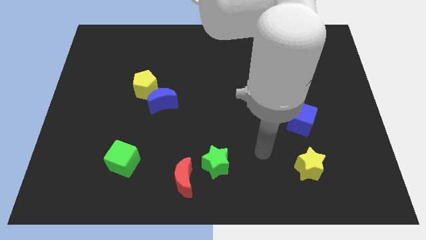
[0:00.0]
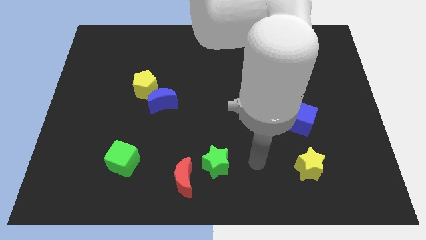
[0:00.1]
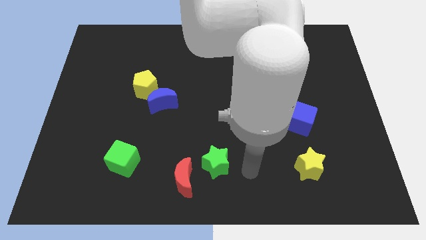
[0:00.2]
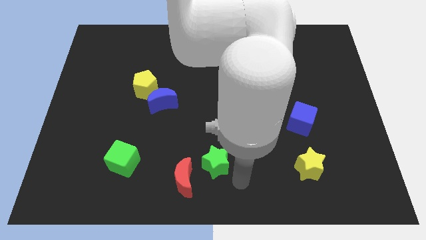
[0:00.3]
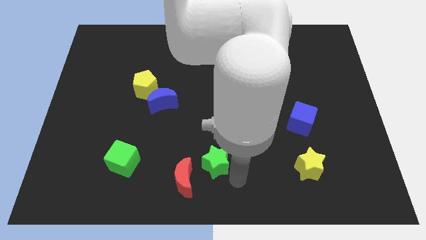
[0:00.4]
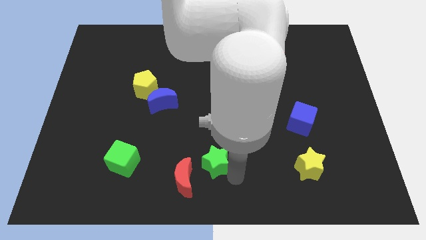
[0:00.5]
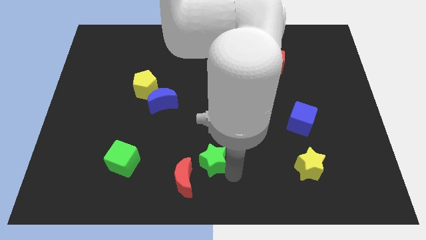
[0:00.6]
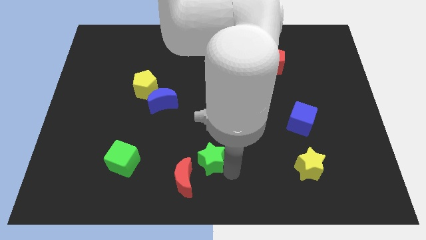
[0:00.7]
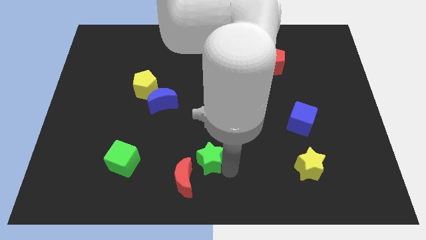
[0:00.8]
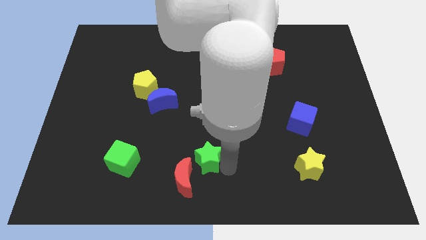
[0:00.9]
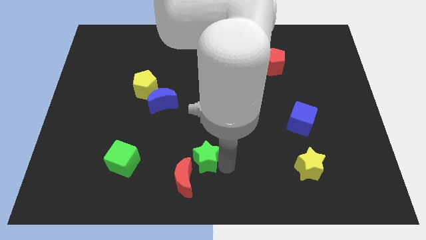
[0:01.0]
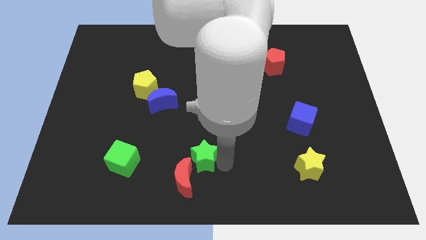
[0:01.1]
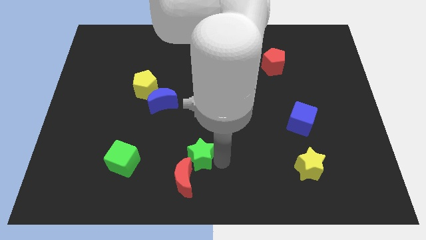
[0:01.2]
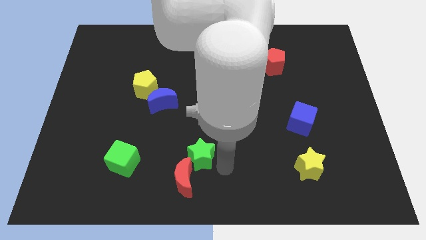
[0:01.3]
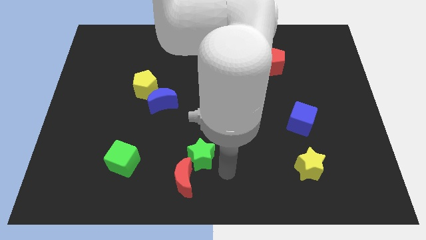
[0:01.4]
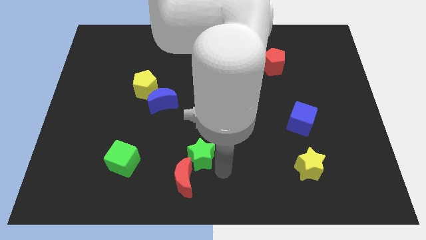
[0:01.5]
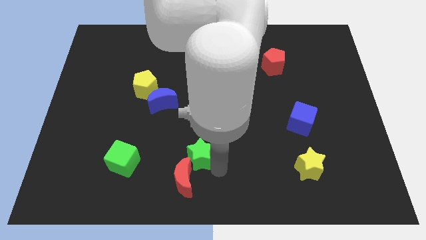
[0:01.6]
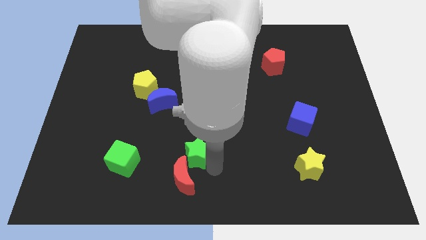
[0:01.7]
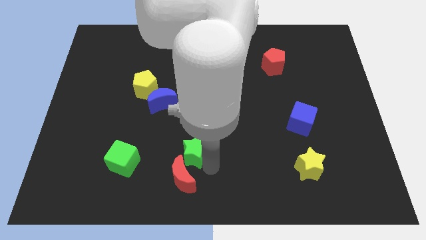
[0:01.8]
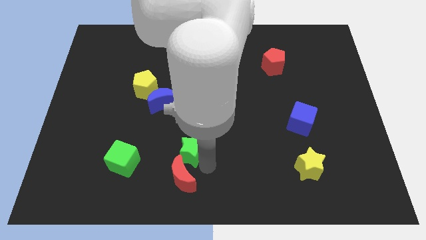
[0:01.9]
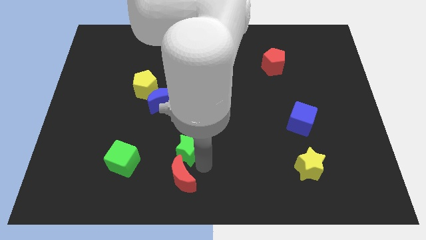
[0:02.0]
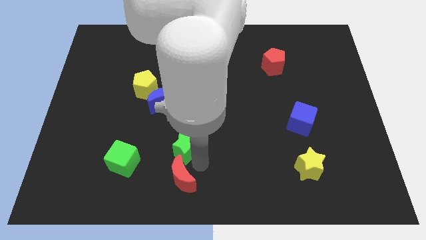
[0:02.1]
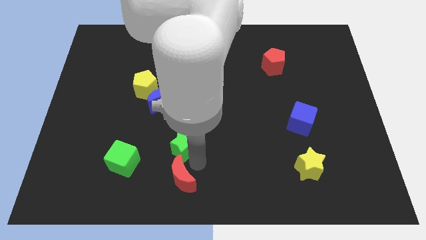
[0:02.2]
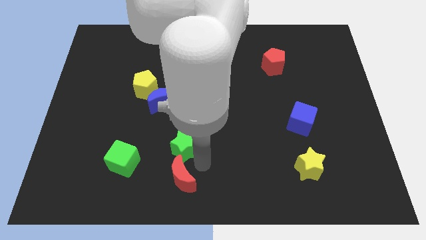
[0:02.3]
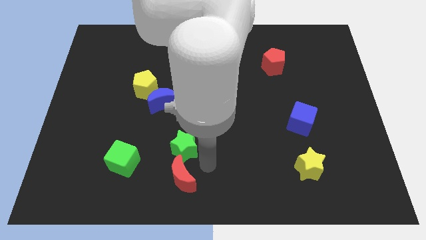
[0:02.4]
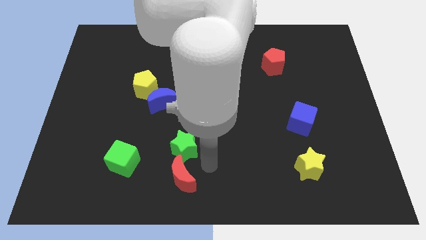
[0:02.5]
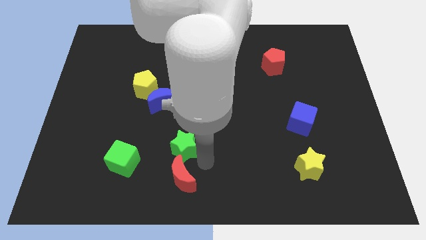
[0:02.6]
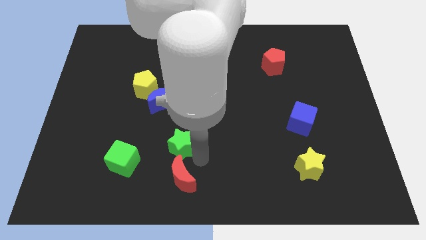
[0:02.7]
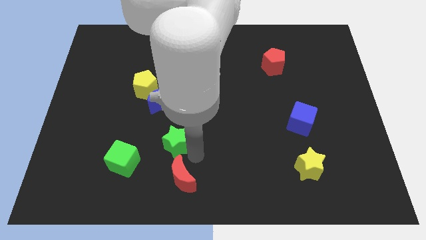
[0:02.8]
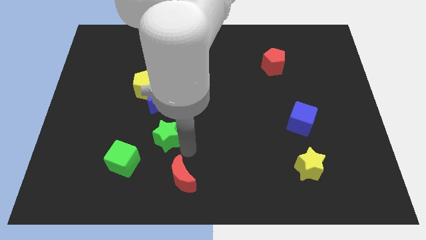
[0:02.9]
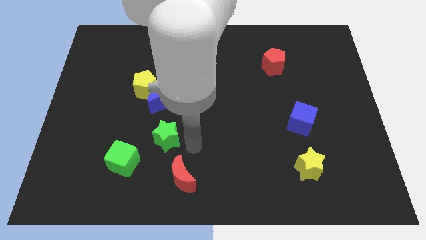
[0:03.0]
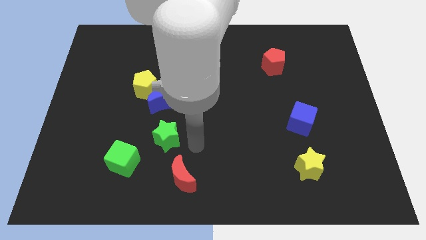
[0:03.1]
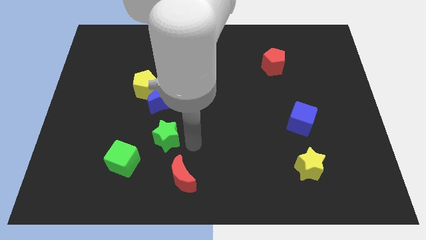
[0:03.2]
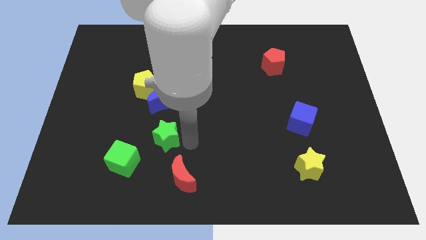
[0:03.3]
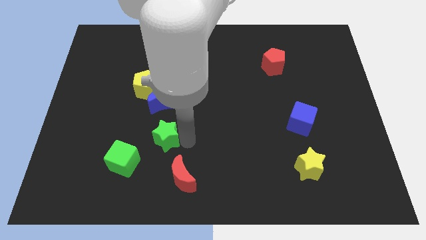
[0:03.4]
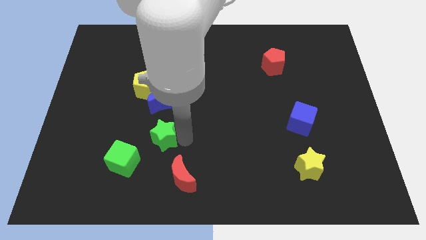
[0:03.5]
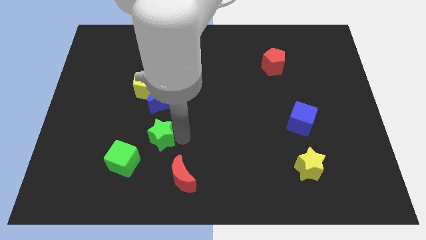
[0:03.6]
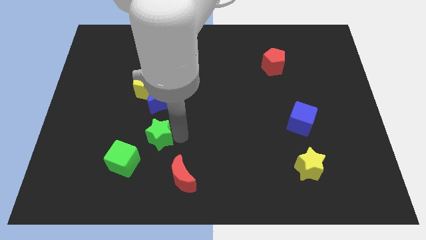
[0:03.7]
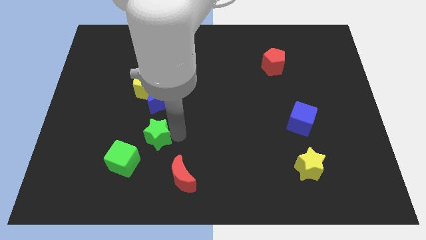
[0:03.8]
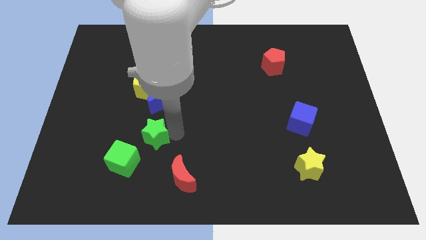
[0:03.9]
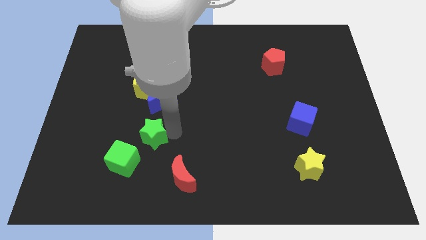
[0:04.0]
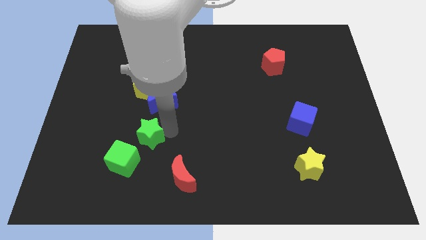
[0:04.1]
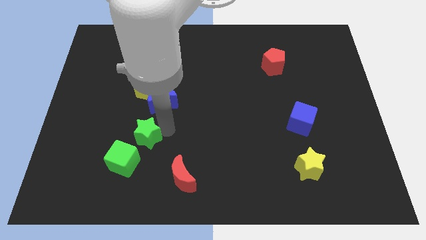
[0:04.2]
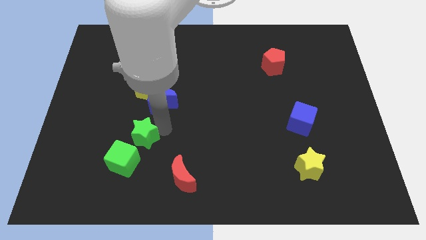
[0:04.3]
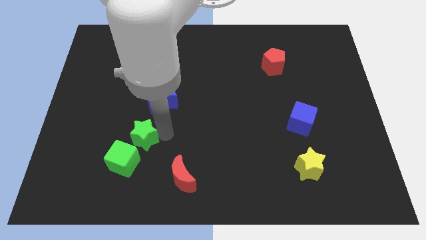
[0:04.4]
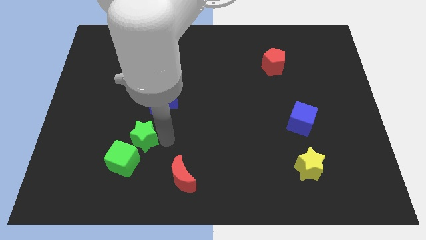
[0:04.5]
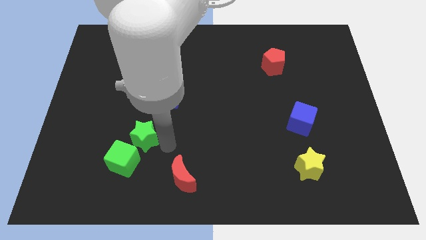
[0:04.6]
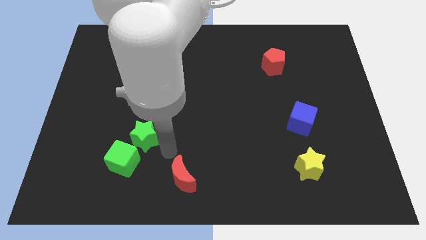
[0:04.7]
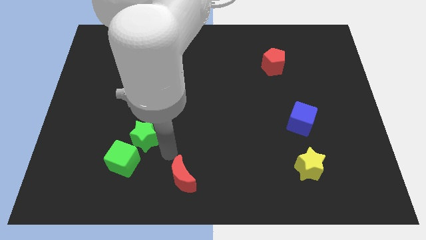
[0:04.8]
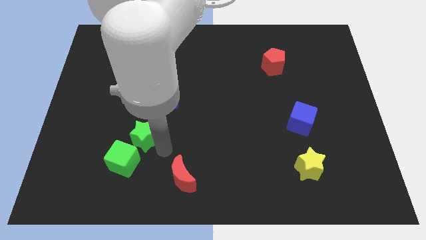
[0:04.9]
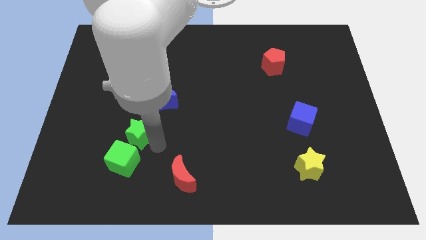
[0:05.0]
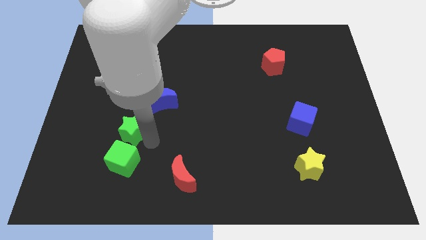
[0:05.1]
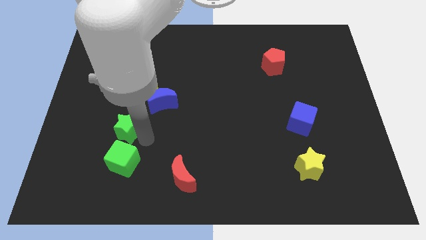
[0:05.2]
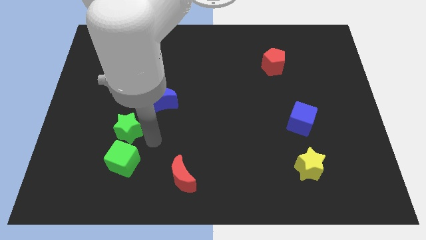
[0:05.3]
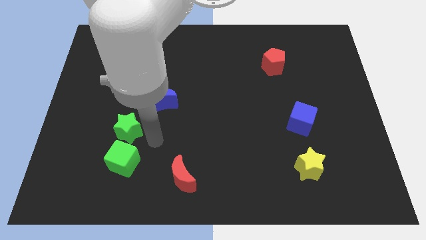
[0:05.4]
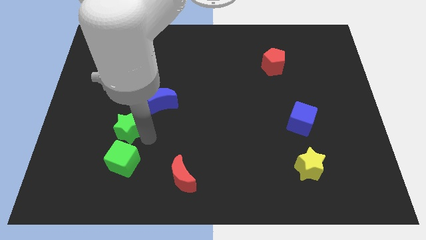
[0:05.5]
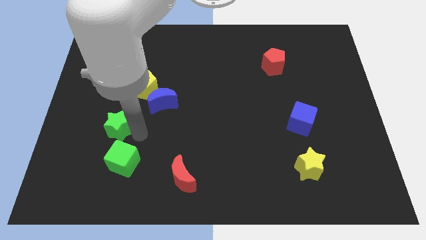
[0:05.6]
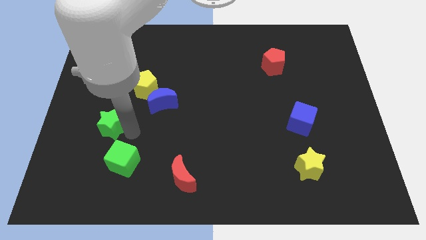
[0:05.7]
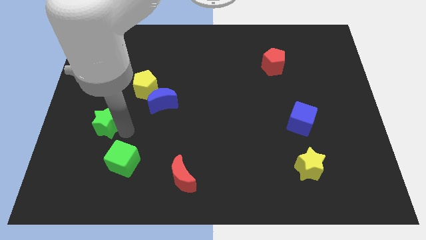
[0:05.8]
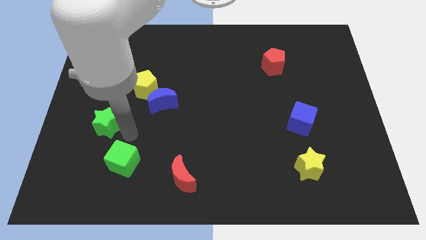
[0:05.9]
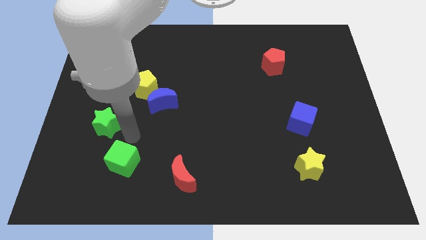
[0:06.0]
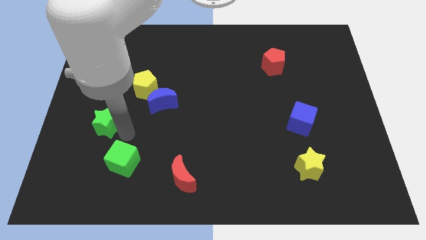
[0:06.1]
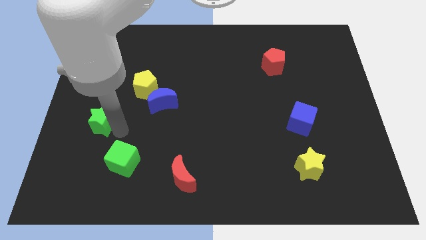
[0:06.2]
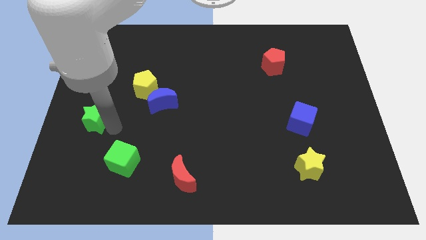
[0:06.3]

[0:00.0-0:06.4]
push the green star to the left side

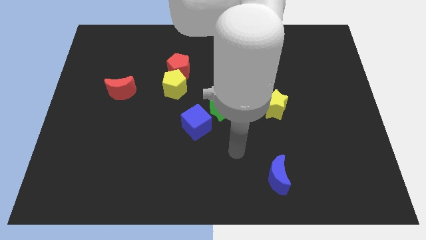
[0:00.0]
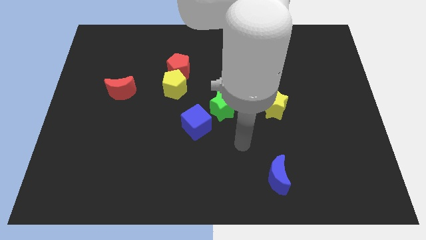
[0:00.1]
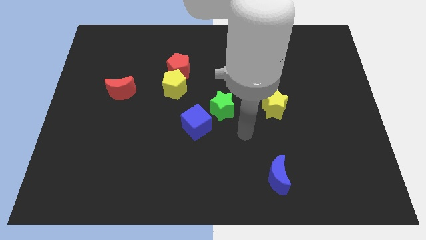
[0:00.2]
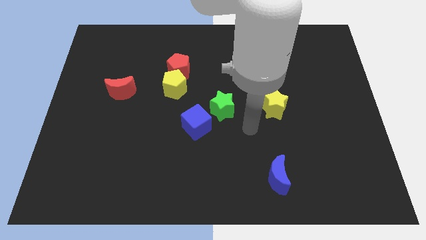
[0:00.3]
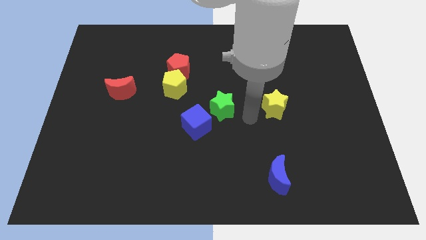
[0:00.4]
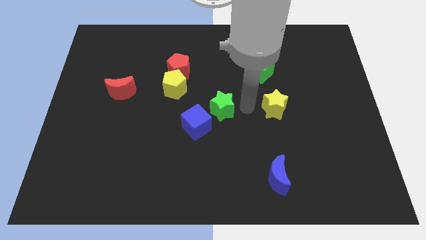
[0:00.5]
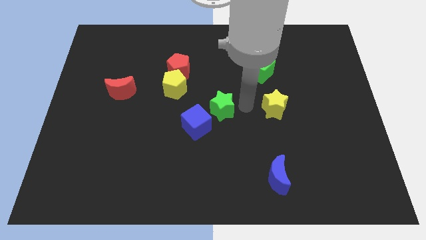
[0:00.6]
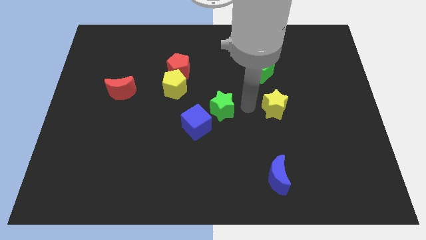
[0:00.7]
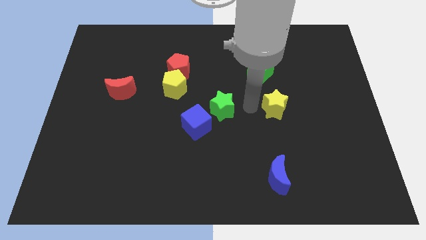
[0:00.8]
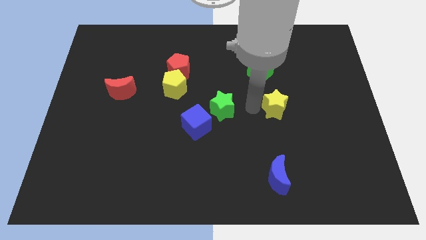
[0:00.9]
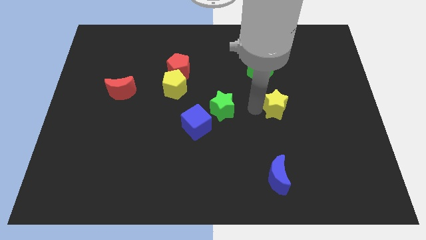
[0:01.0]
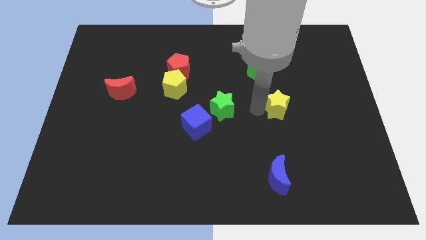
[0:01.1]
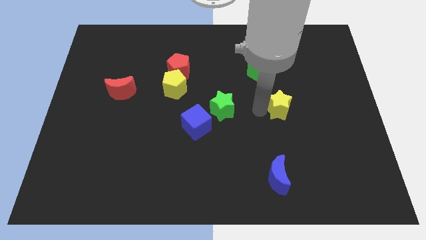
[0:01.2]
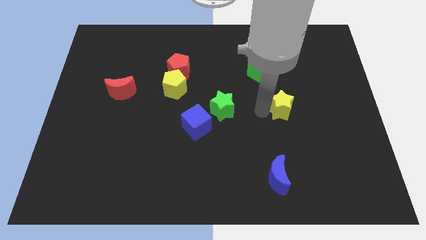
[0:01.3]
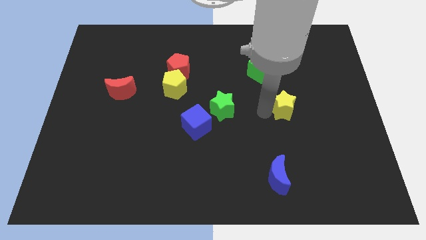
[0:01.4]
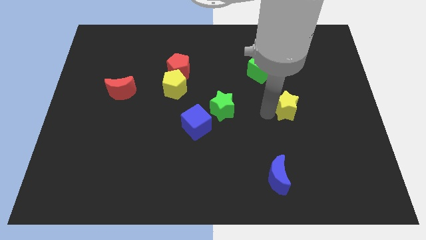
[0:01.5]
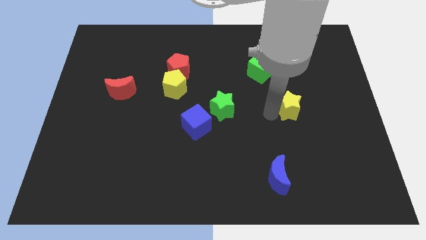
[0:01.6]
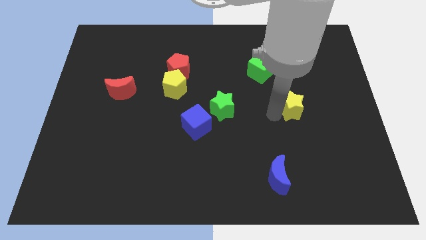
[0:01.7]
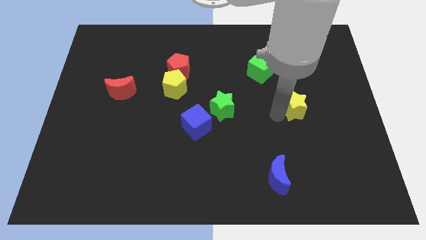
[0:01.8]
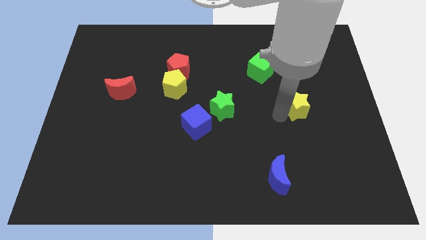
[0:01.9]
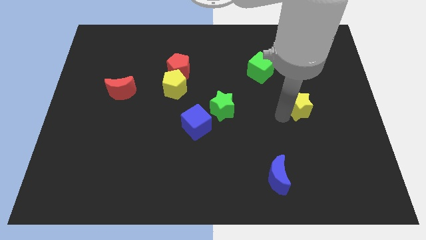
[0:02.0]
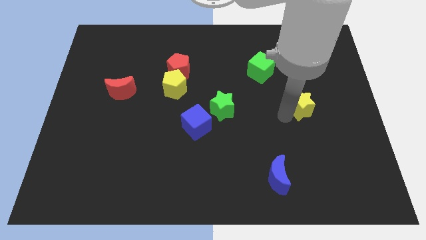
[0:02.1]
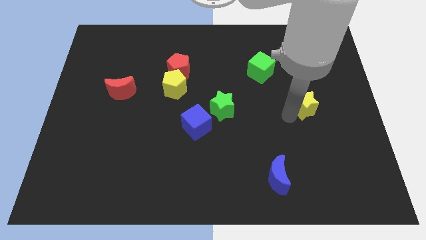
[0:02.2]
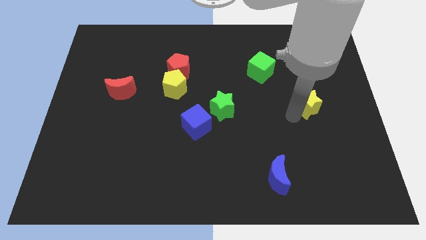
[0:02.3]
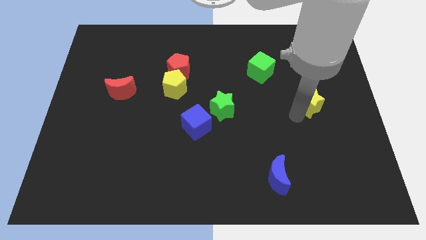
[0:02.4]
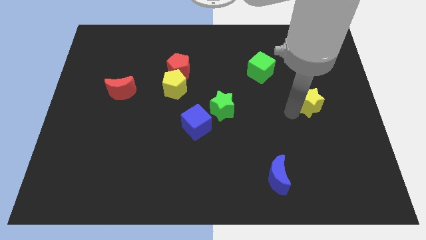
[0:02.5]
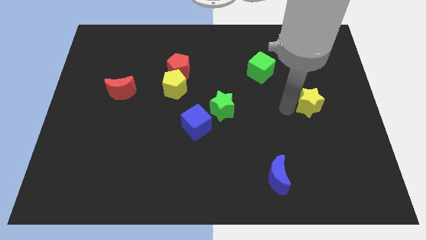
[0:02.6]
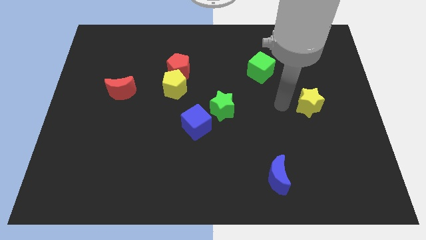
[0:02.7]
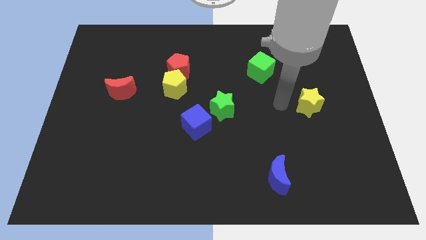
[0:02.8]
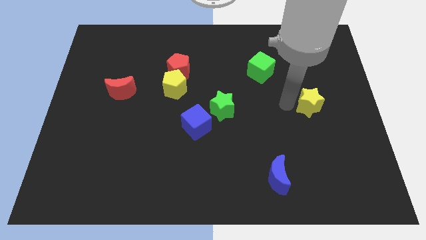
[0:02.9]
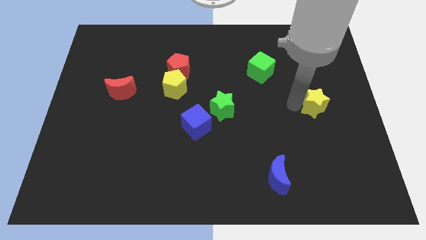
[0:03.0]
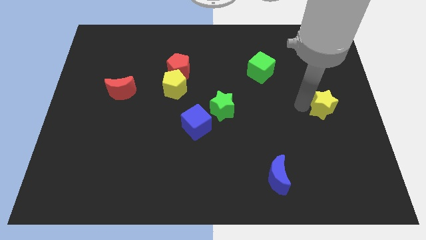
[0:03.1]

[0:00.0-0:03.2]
slide the yellow star to the right side of the board
